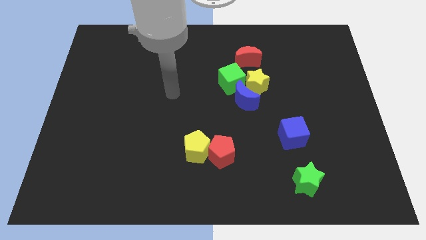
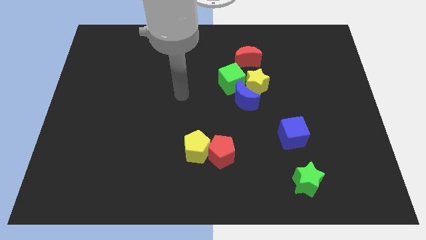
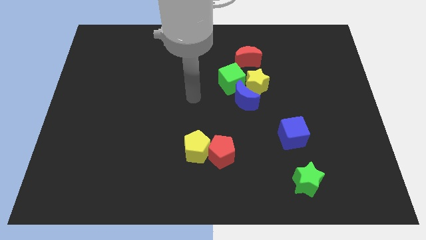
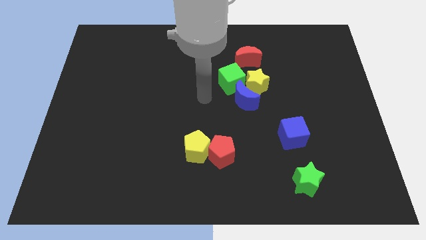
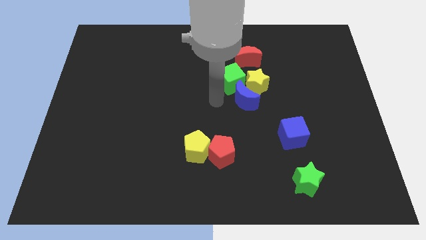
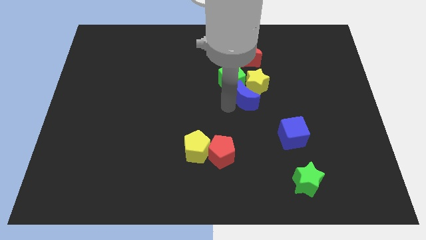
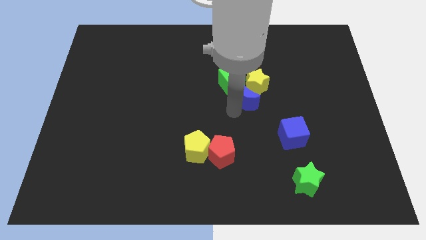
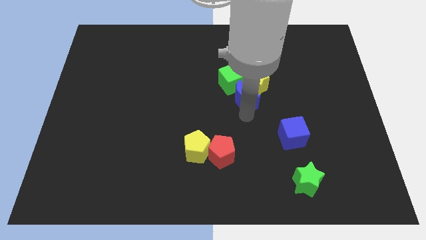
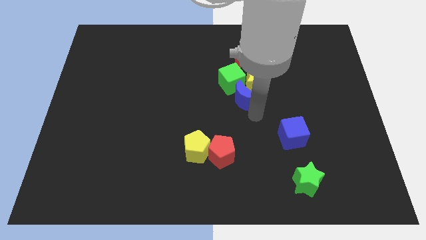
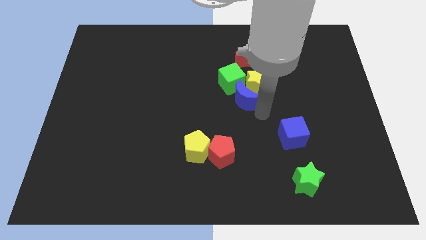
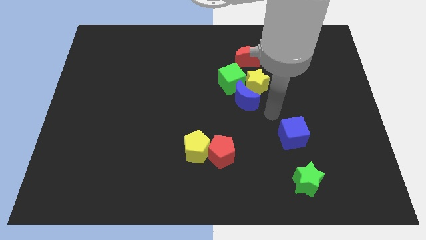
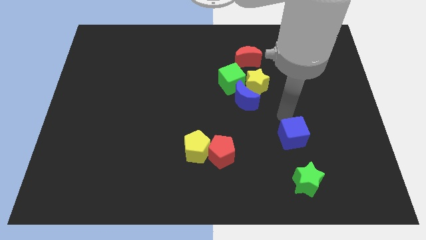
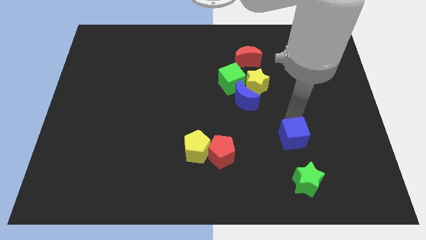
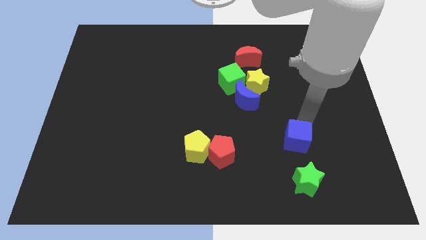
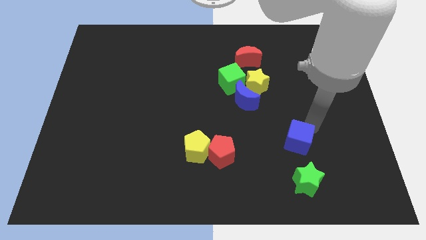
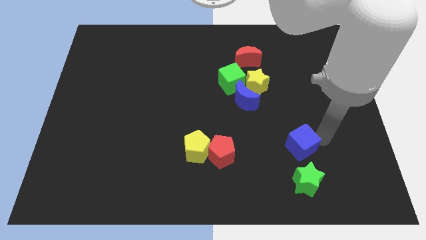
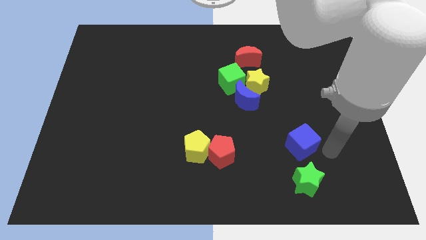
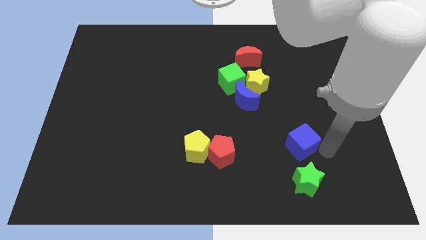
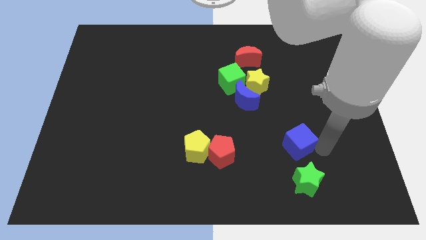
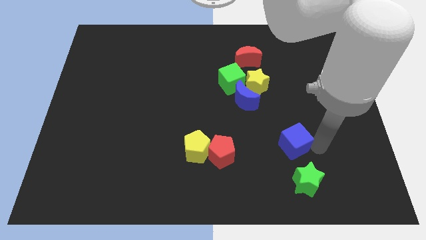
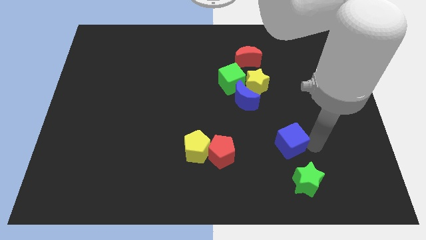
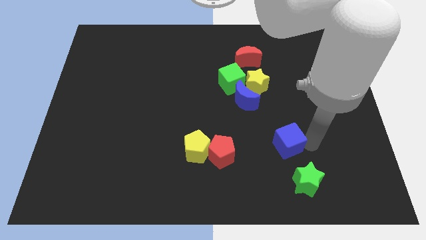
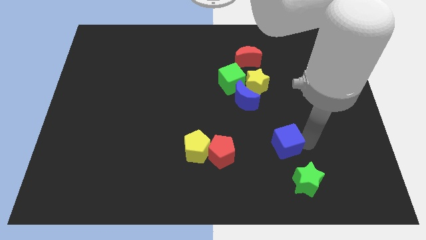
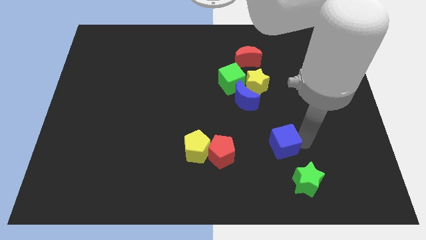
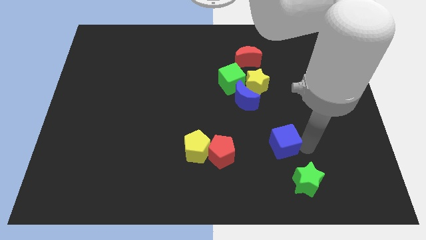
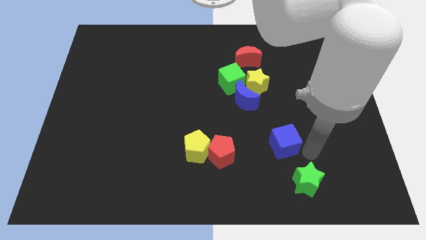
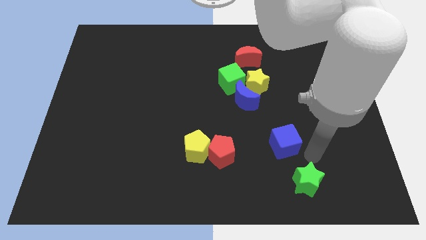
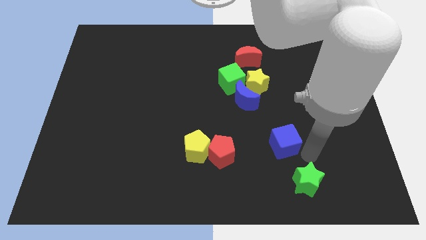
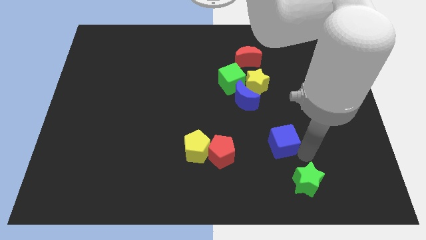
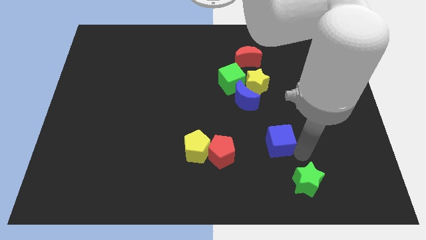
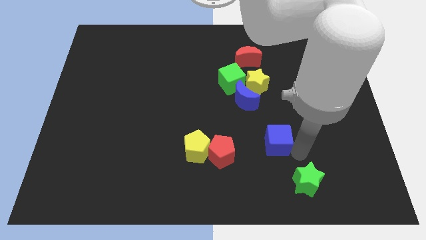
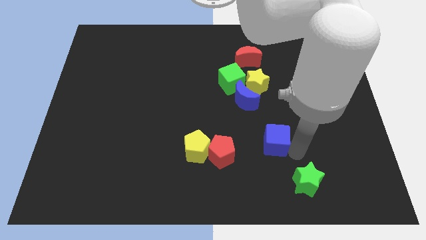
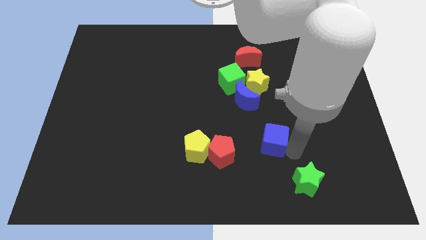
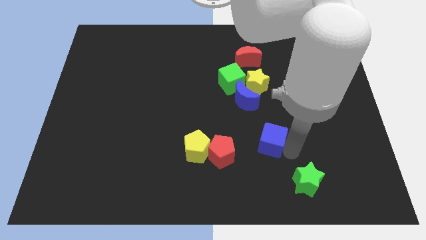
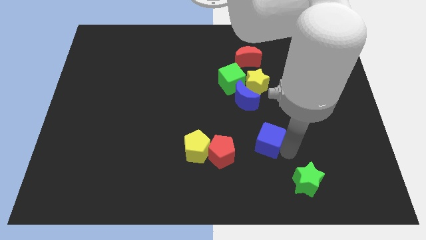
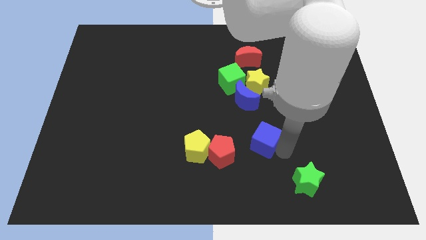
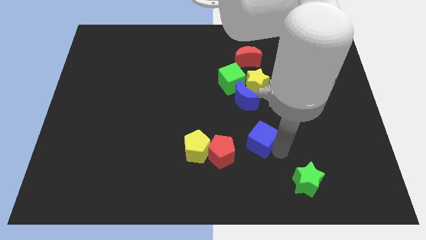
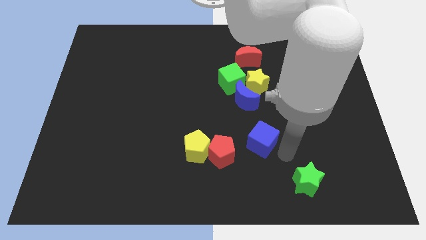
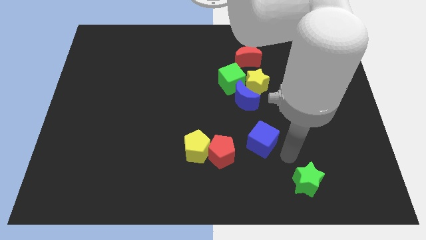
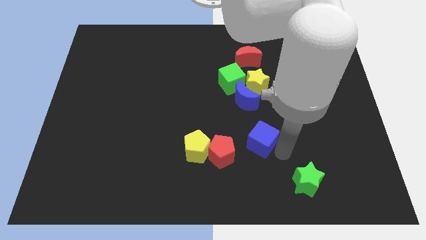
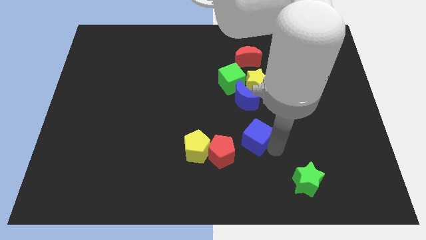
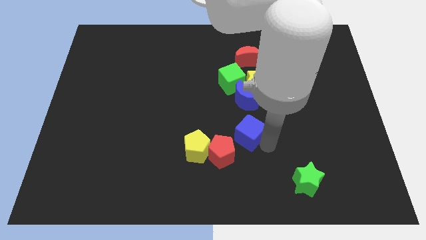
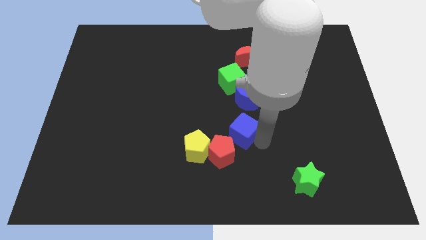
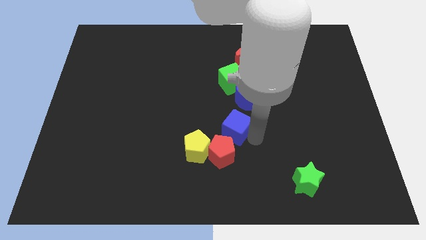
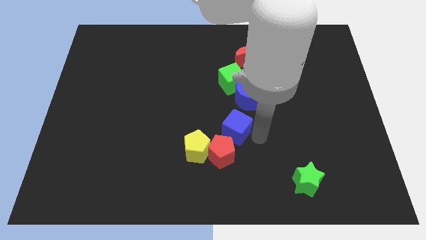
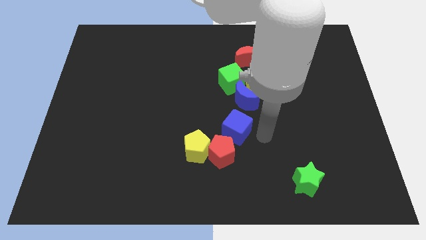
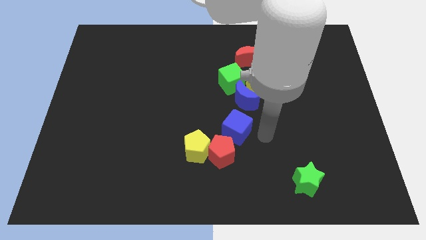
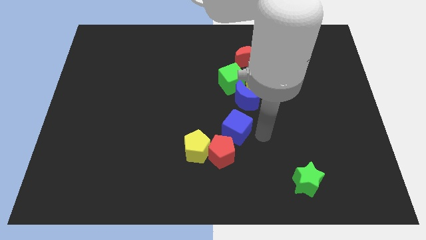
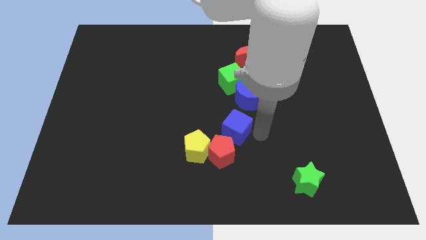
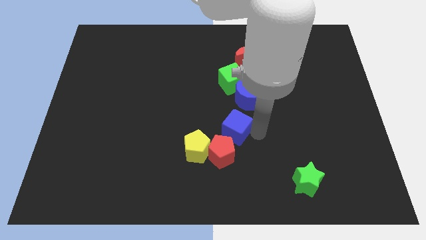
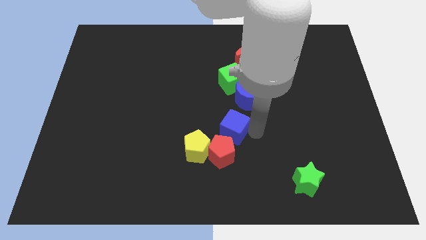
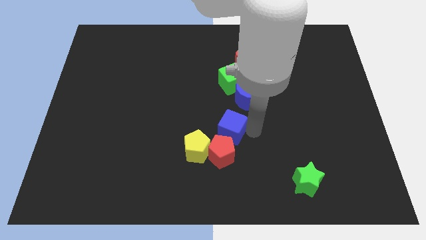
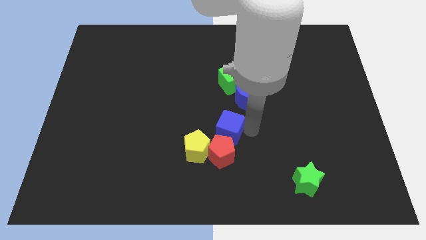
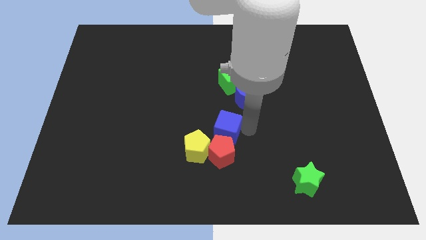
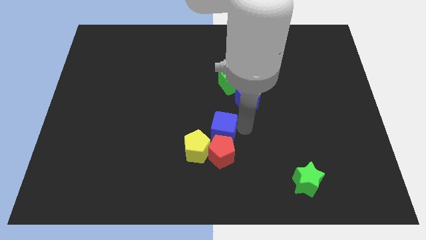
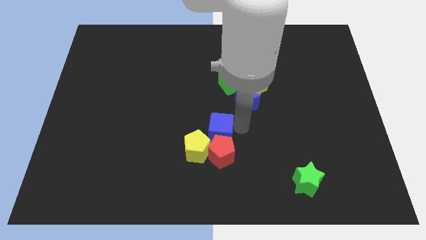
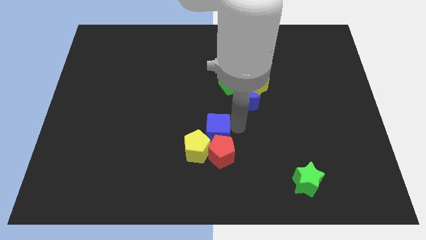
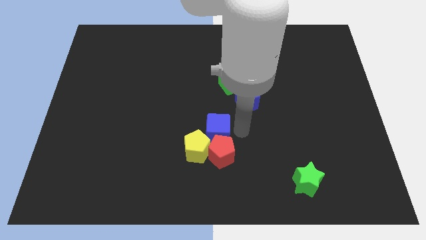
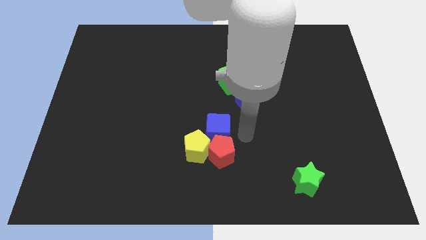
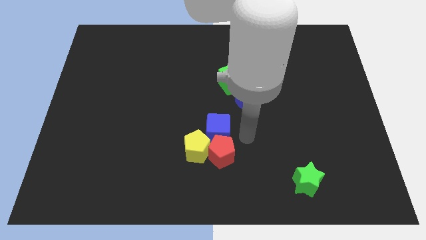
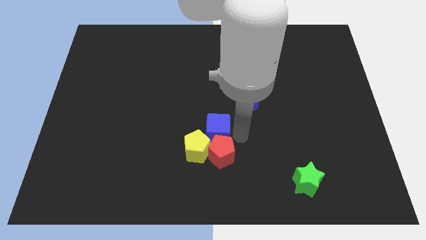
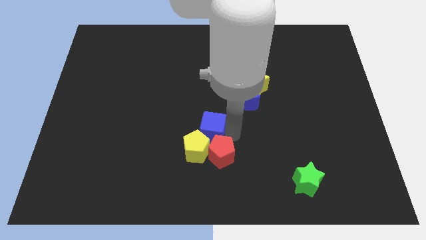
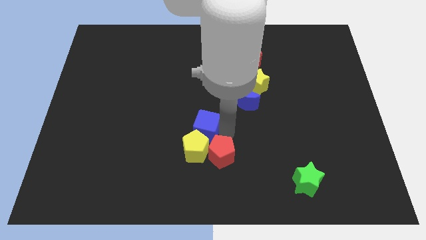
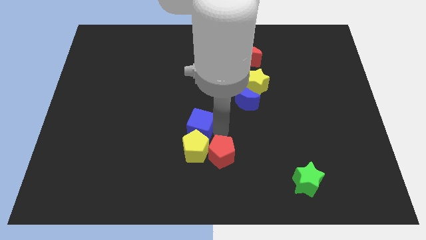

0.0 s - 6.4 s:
slide the blue cube to the left

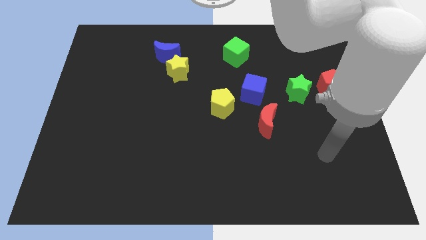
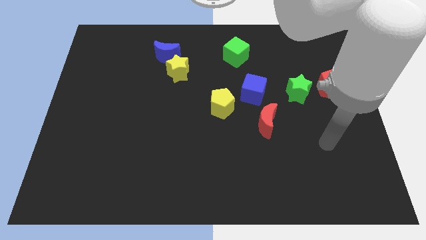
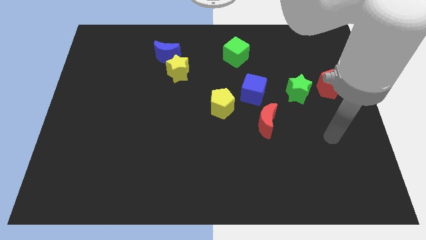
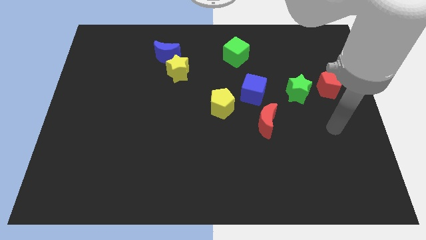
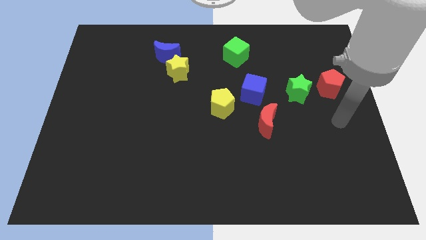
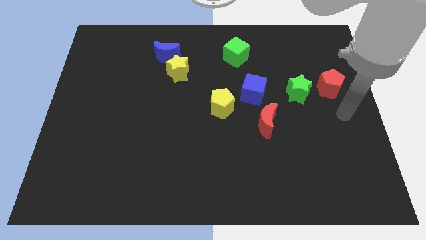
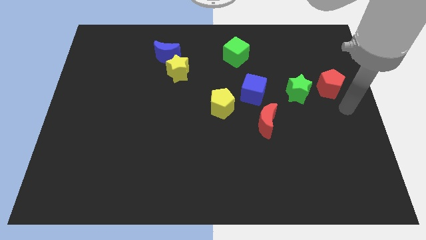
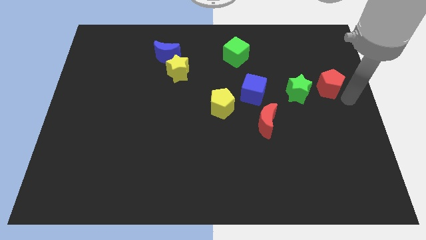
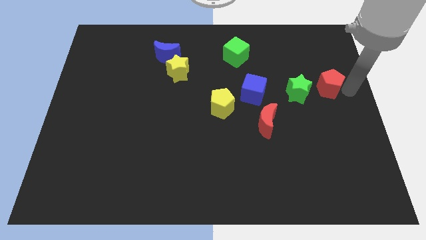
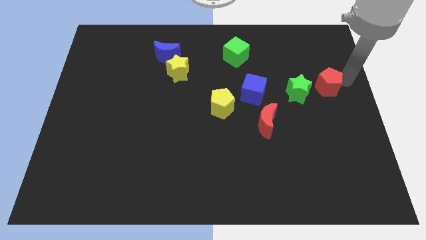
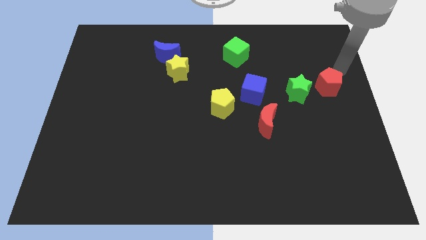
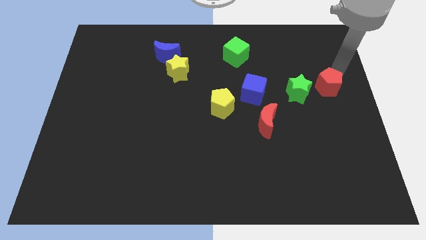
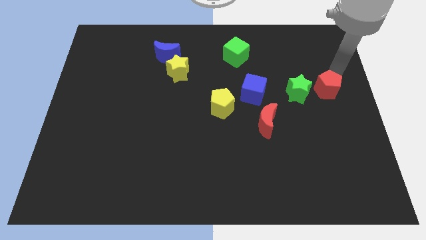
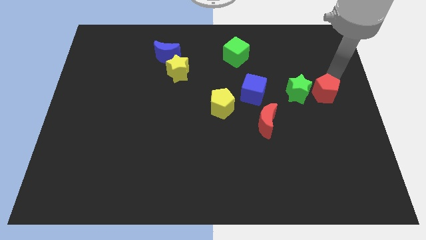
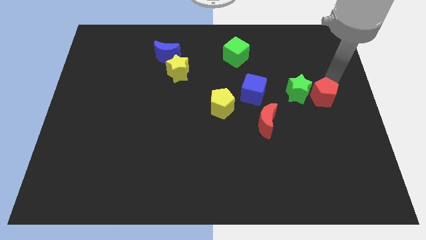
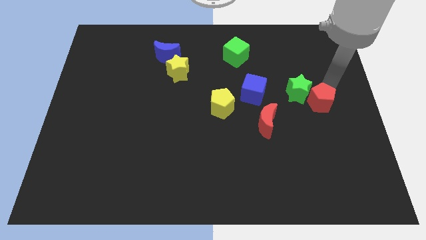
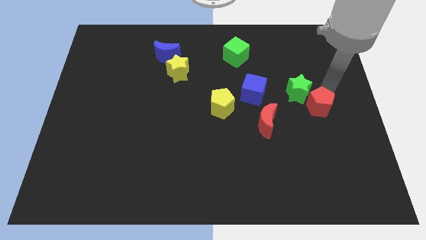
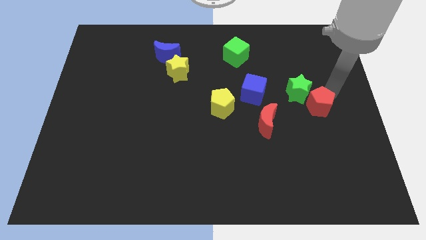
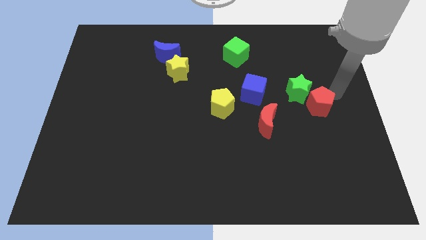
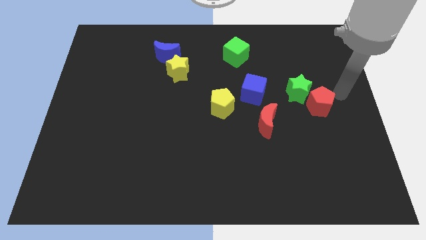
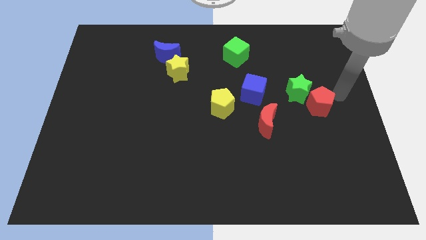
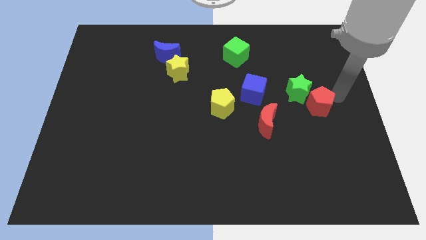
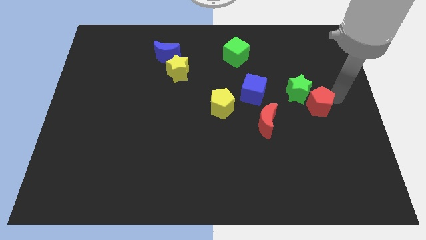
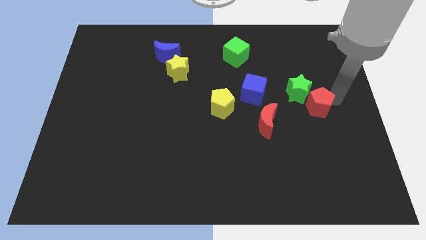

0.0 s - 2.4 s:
push the red pentagon somewhat downwards and to the left diagonally
